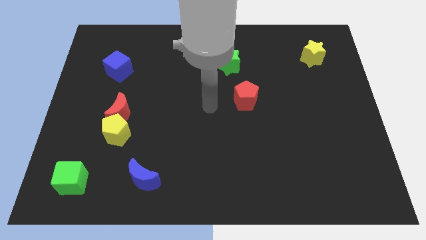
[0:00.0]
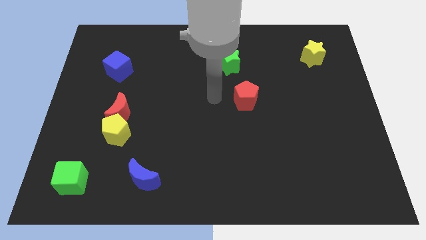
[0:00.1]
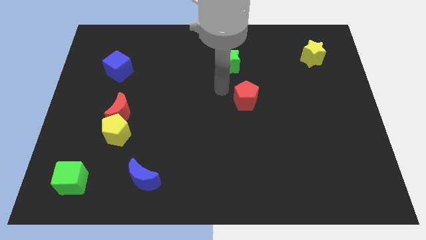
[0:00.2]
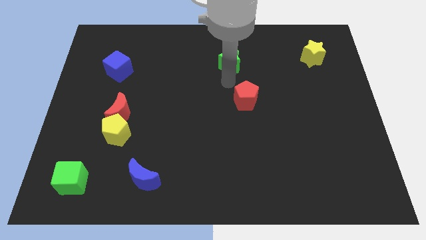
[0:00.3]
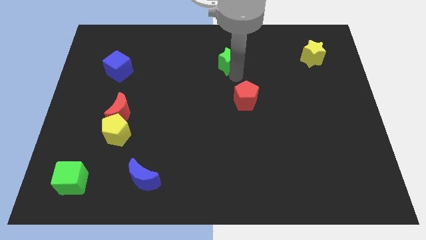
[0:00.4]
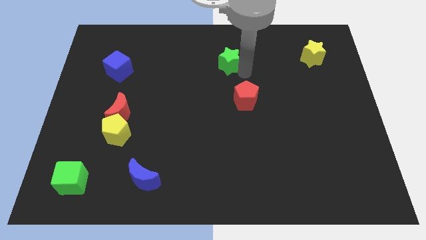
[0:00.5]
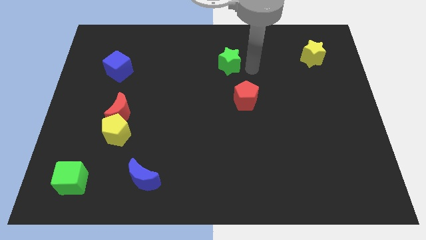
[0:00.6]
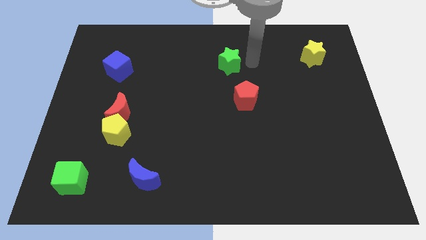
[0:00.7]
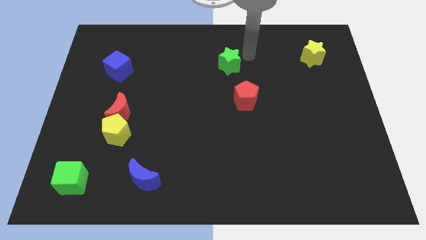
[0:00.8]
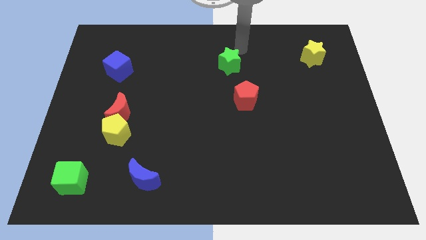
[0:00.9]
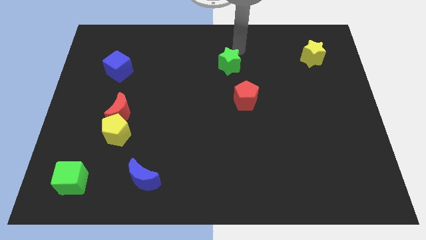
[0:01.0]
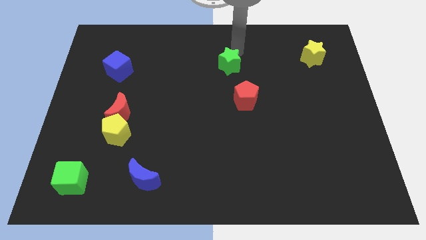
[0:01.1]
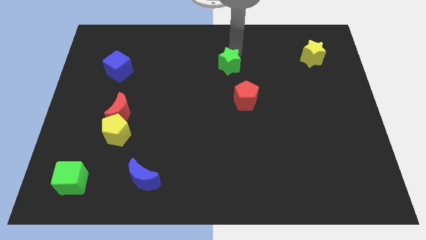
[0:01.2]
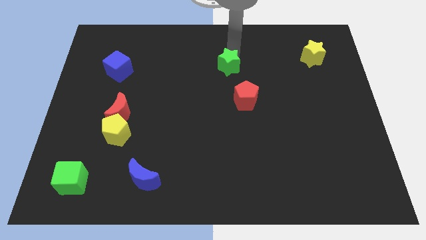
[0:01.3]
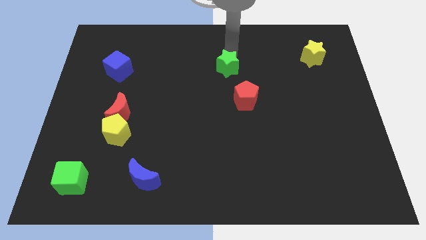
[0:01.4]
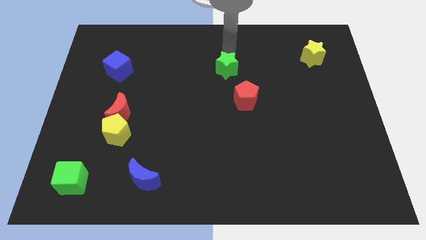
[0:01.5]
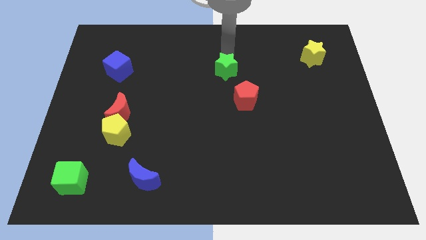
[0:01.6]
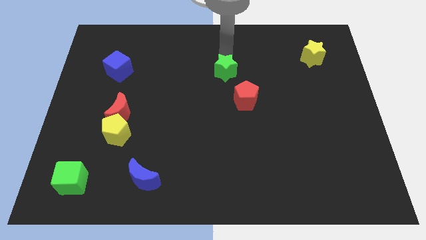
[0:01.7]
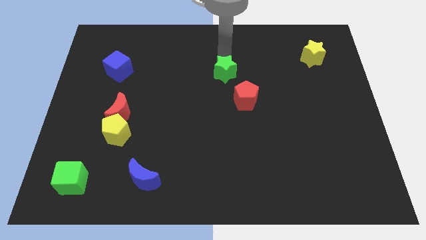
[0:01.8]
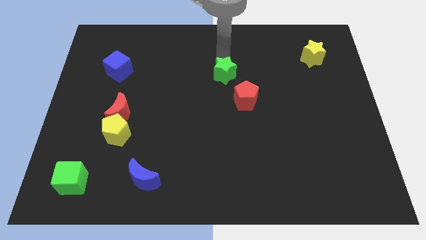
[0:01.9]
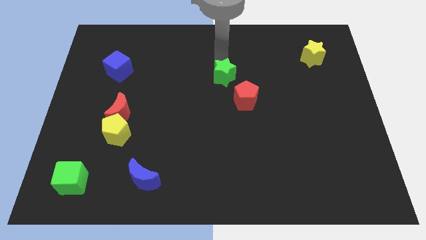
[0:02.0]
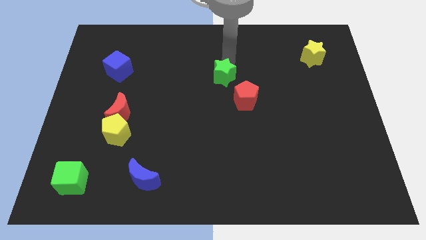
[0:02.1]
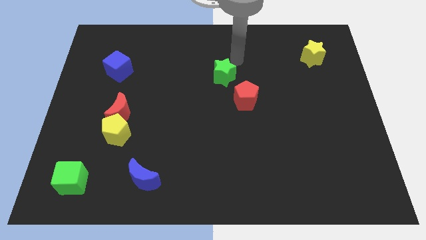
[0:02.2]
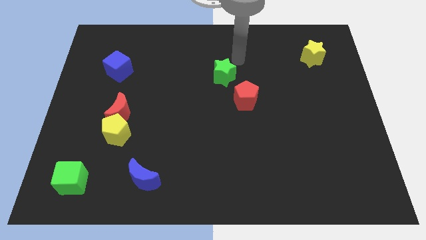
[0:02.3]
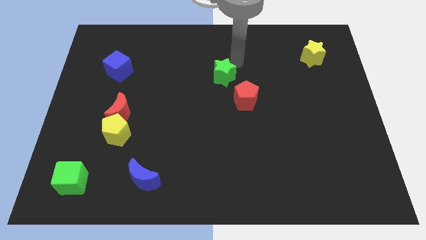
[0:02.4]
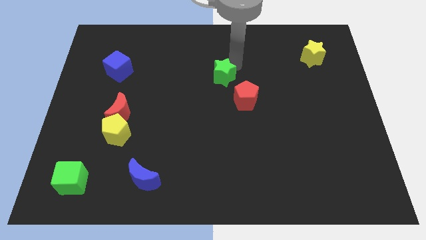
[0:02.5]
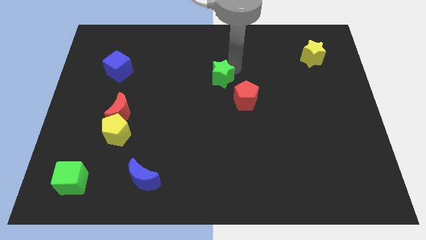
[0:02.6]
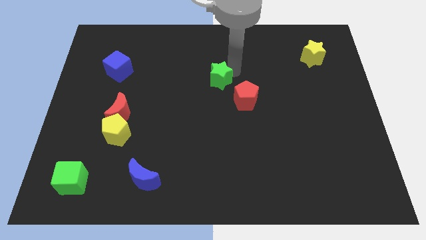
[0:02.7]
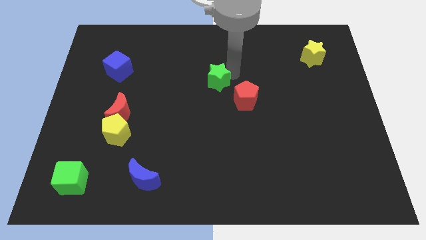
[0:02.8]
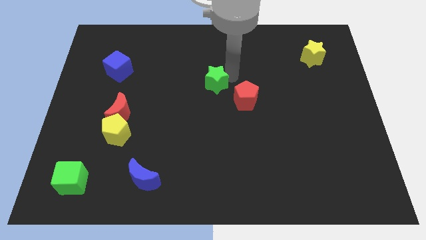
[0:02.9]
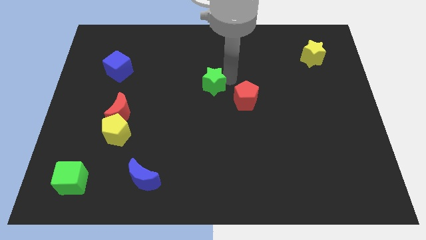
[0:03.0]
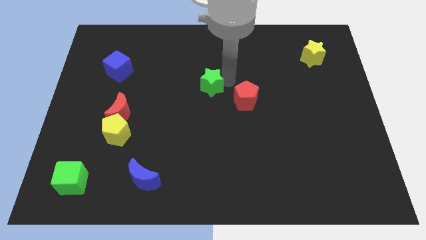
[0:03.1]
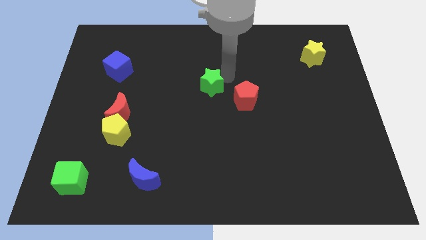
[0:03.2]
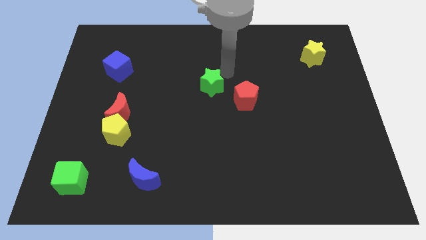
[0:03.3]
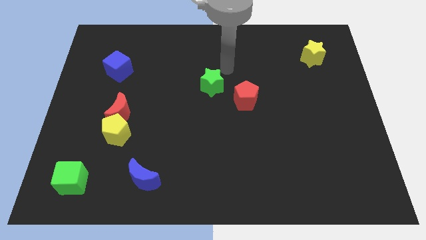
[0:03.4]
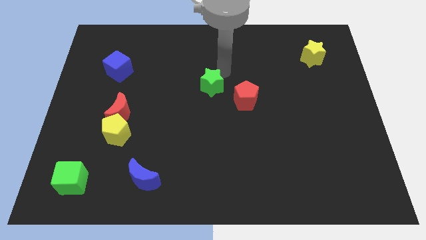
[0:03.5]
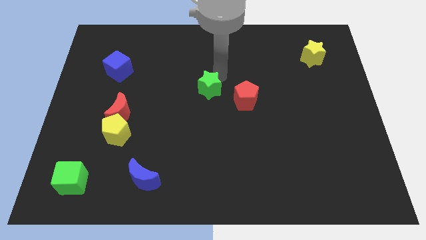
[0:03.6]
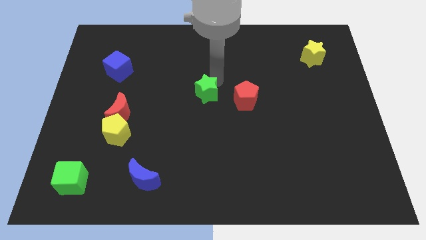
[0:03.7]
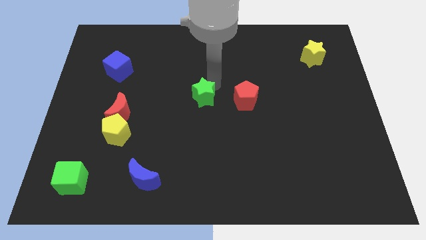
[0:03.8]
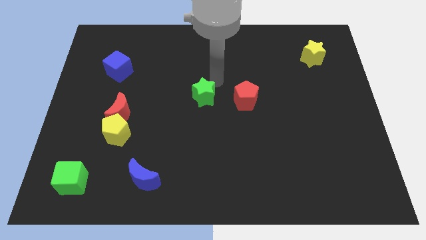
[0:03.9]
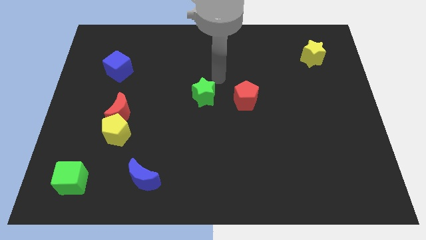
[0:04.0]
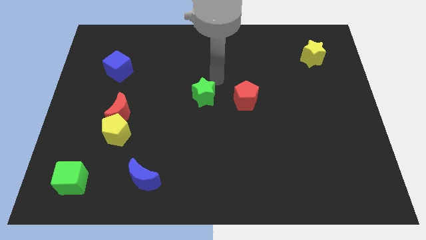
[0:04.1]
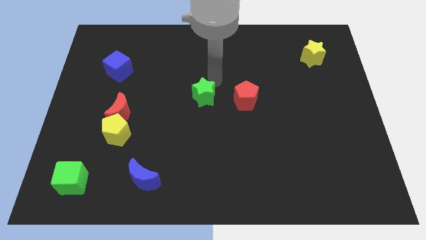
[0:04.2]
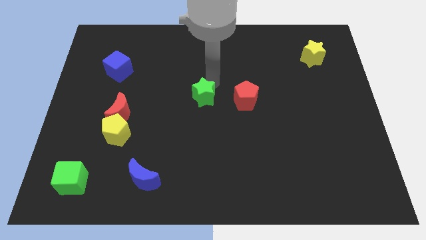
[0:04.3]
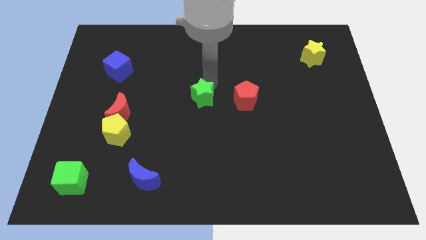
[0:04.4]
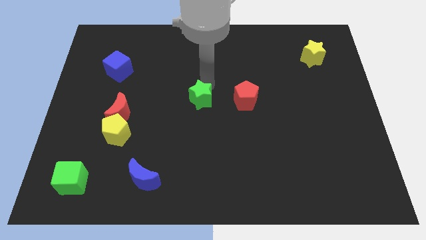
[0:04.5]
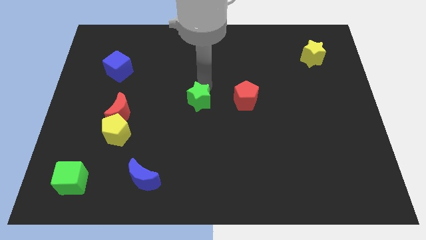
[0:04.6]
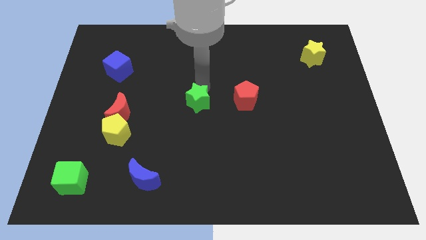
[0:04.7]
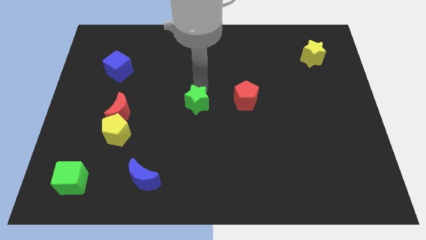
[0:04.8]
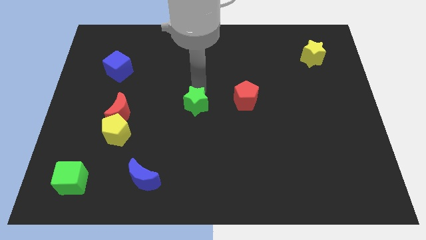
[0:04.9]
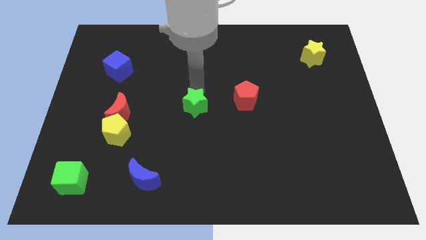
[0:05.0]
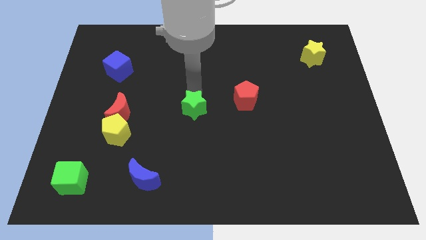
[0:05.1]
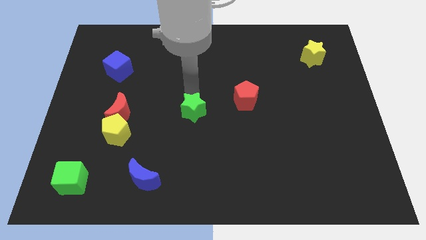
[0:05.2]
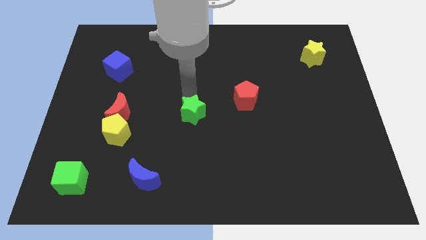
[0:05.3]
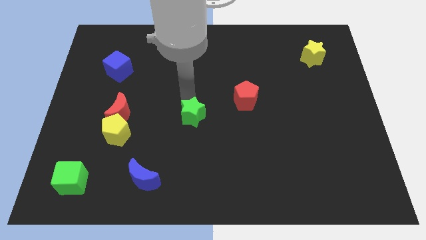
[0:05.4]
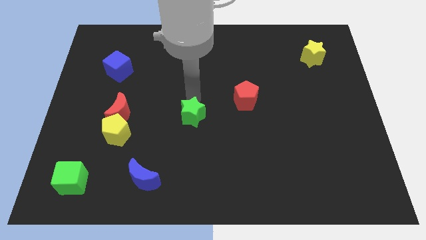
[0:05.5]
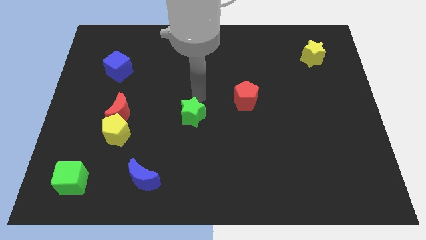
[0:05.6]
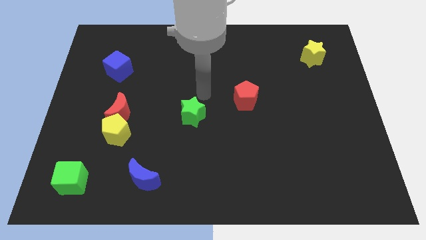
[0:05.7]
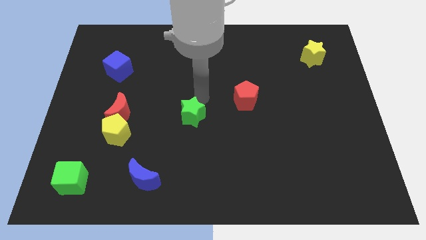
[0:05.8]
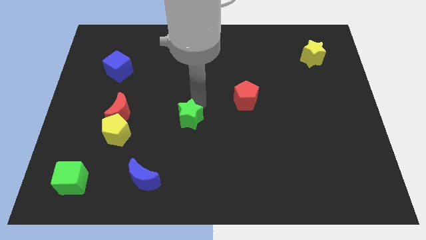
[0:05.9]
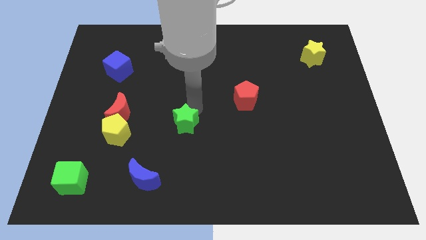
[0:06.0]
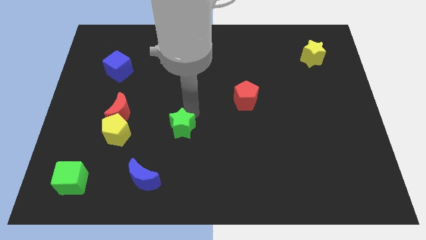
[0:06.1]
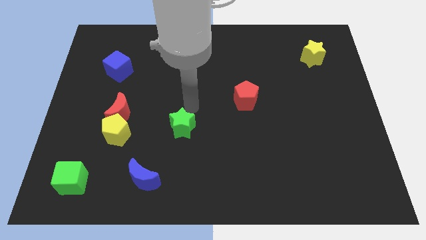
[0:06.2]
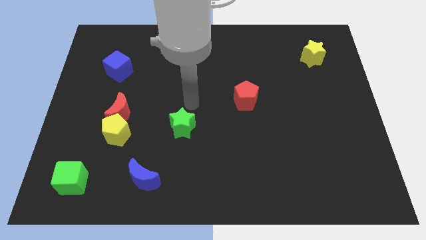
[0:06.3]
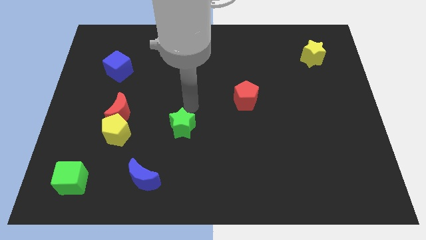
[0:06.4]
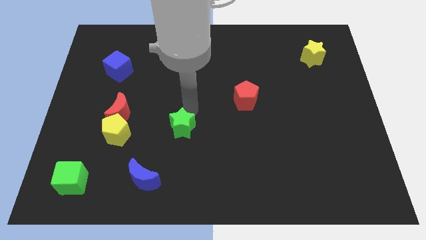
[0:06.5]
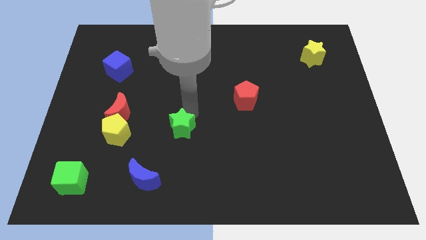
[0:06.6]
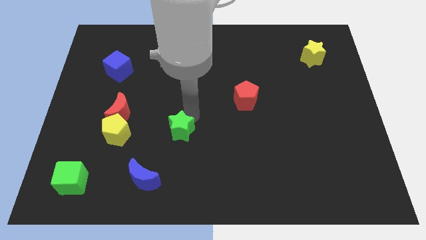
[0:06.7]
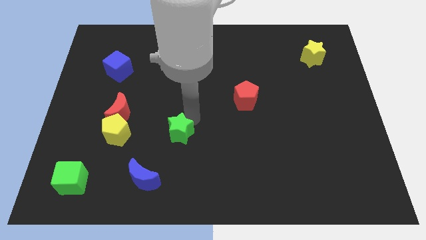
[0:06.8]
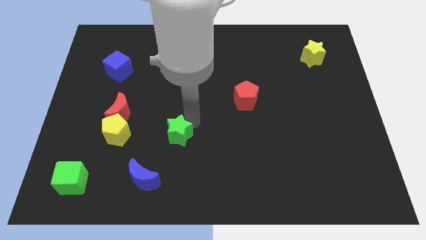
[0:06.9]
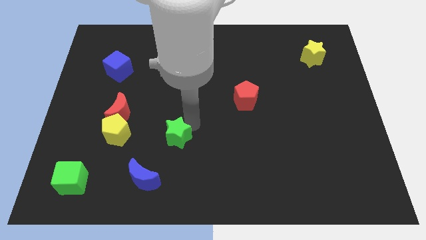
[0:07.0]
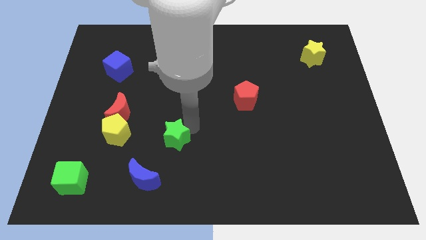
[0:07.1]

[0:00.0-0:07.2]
move the green star to the top right of the blue moon

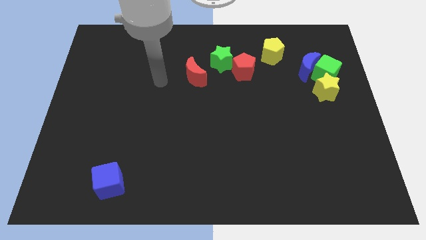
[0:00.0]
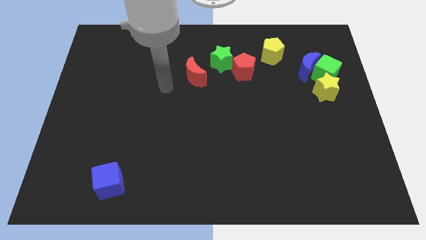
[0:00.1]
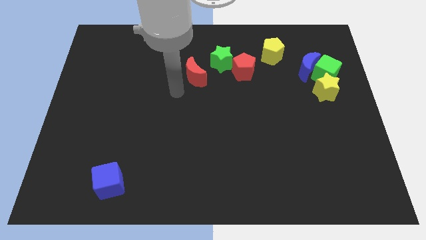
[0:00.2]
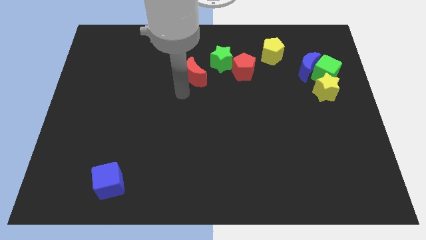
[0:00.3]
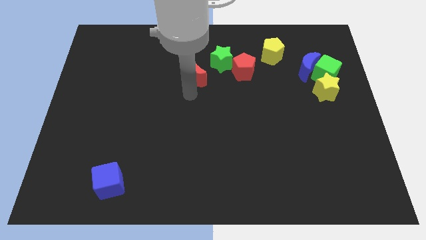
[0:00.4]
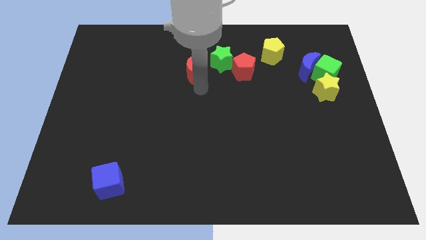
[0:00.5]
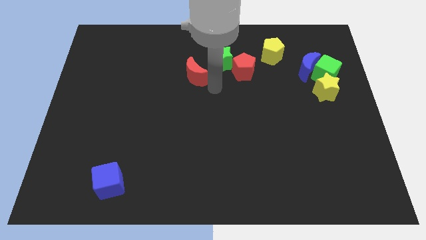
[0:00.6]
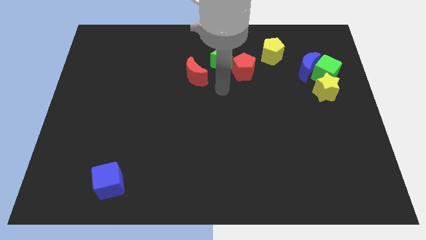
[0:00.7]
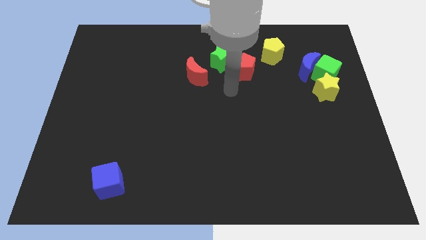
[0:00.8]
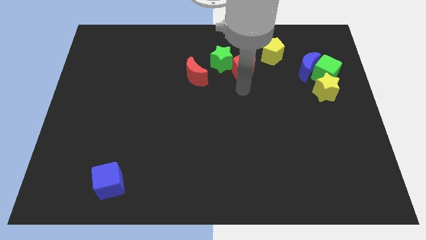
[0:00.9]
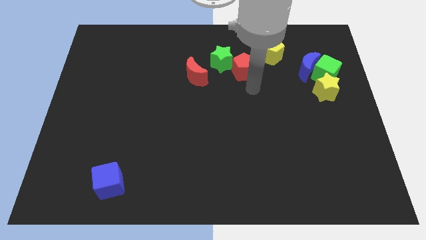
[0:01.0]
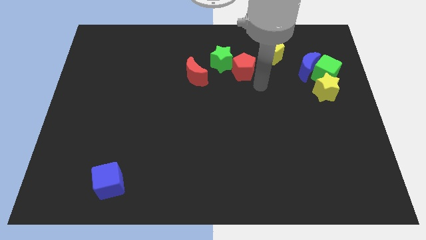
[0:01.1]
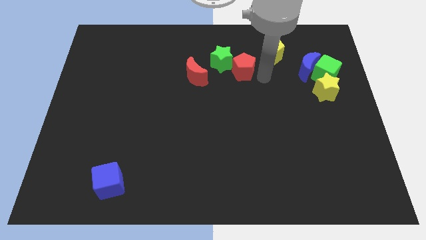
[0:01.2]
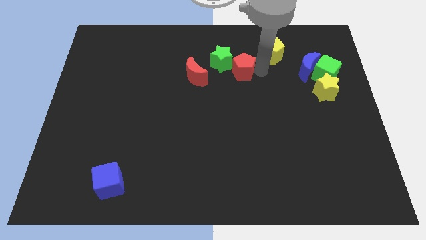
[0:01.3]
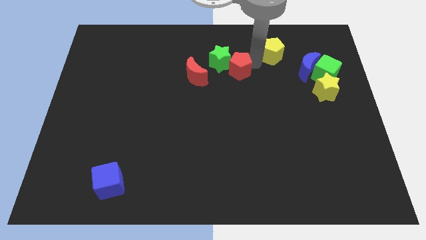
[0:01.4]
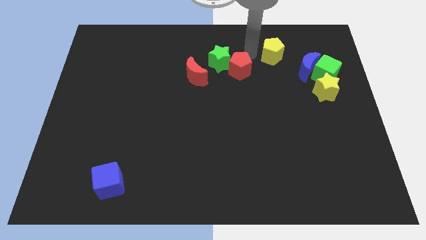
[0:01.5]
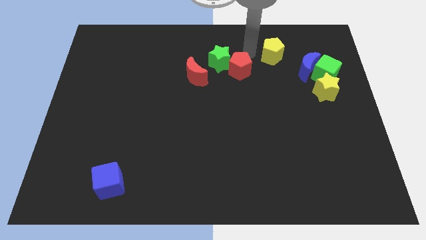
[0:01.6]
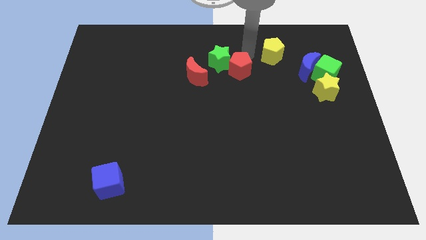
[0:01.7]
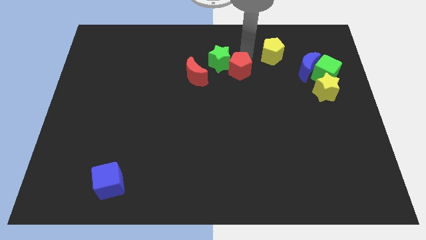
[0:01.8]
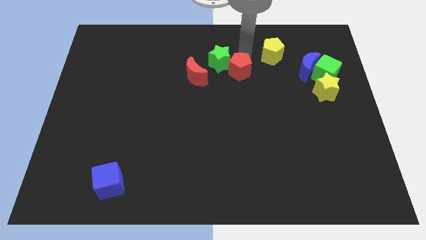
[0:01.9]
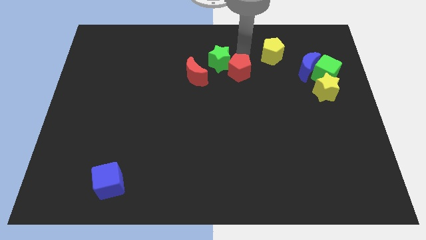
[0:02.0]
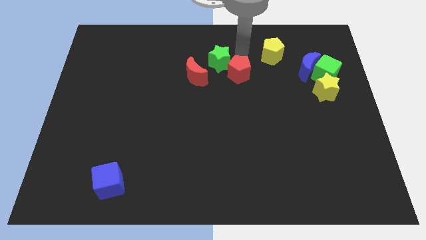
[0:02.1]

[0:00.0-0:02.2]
push the red pentagon to the bottom of the green star
